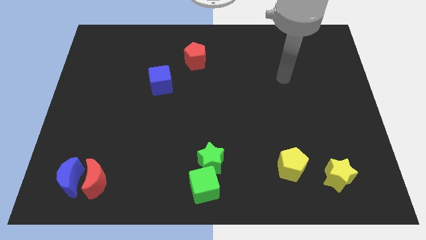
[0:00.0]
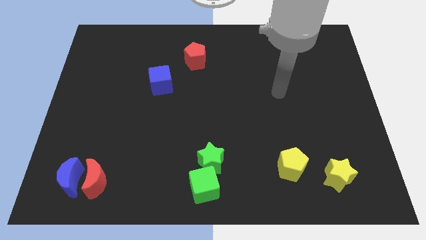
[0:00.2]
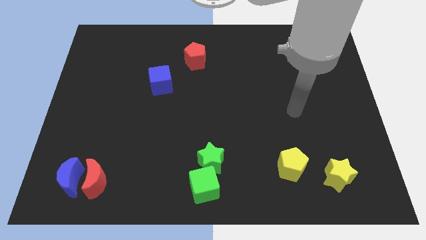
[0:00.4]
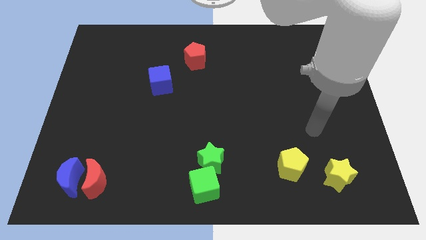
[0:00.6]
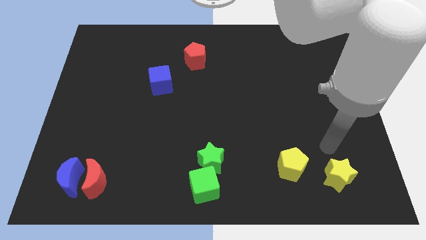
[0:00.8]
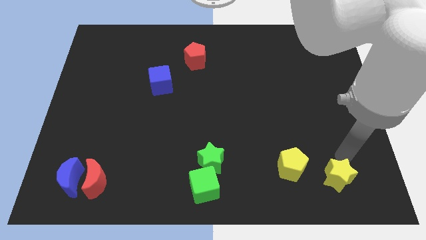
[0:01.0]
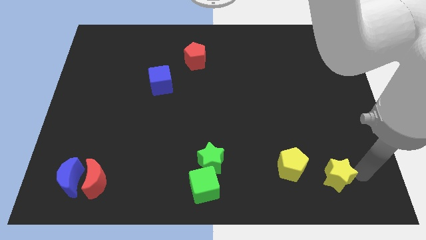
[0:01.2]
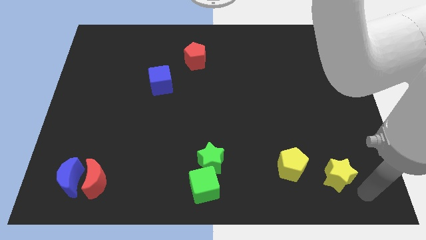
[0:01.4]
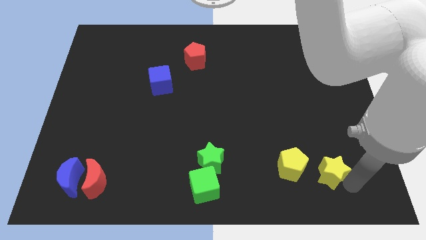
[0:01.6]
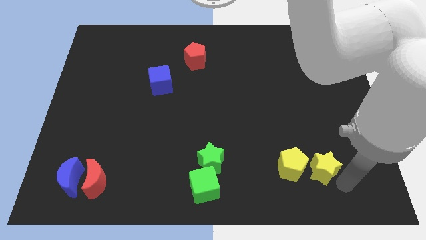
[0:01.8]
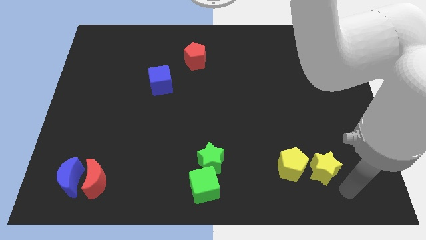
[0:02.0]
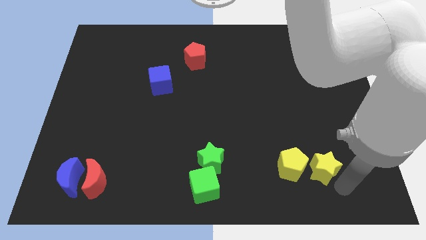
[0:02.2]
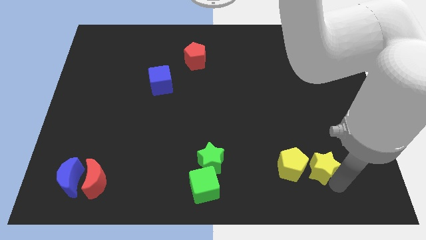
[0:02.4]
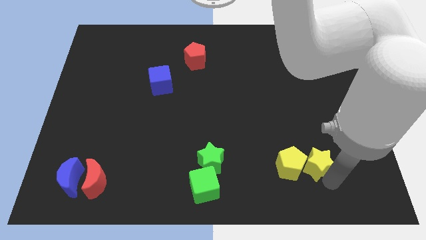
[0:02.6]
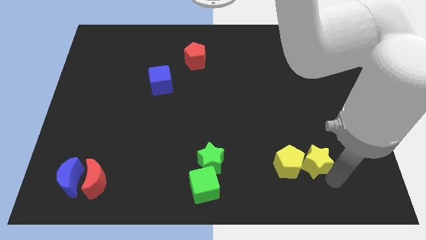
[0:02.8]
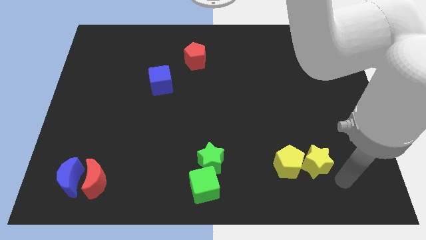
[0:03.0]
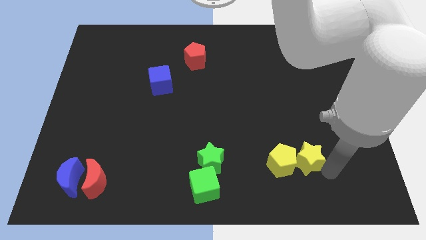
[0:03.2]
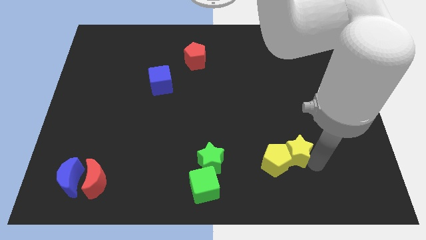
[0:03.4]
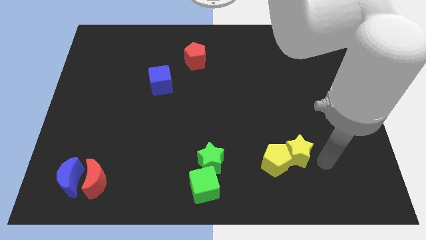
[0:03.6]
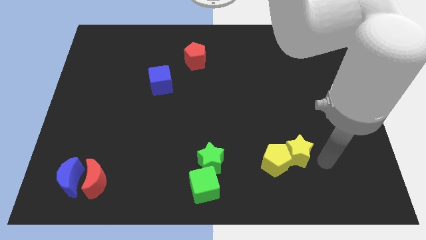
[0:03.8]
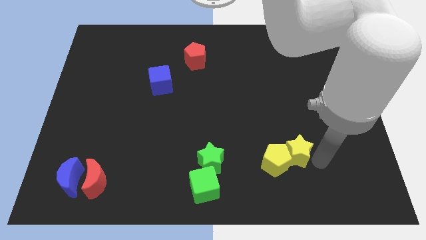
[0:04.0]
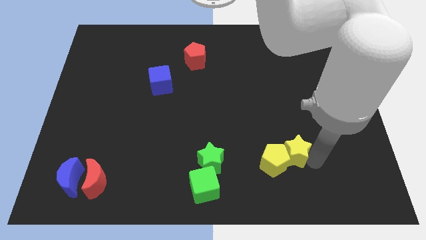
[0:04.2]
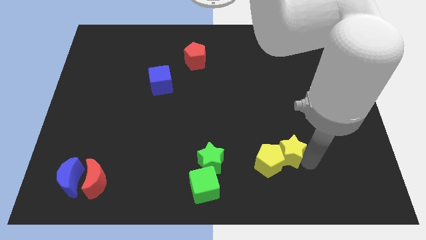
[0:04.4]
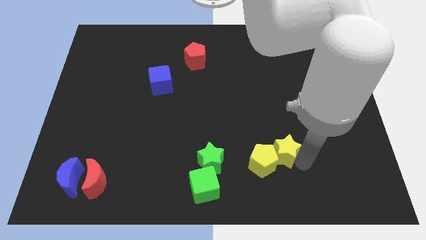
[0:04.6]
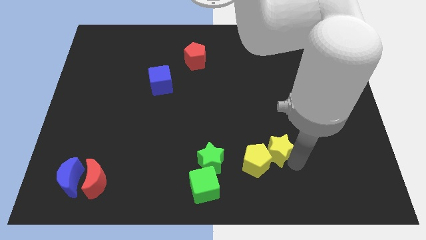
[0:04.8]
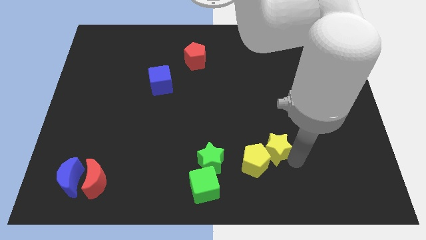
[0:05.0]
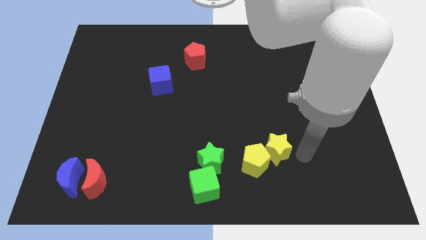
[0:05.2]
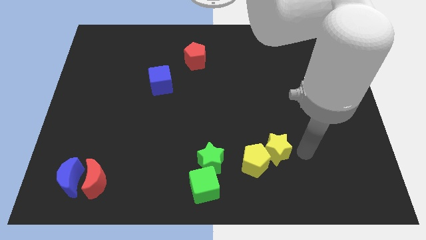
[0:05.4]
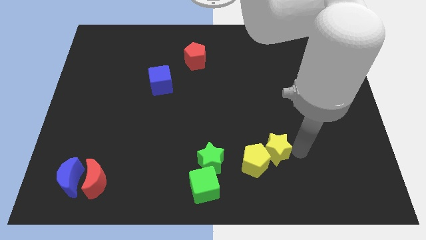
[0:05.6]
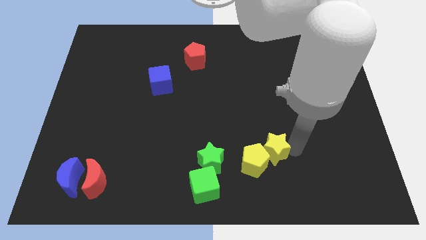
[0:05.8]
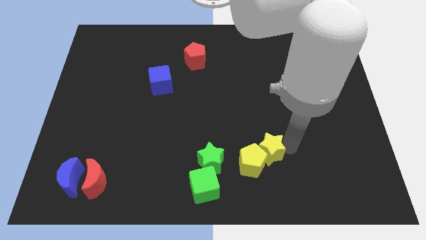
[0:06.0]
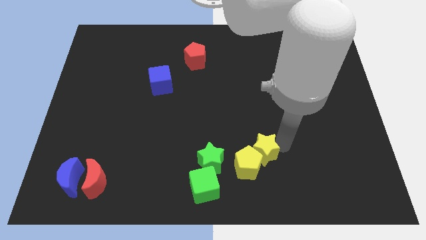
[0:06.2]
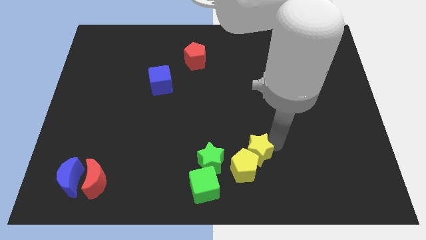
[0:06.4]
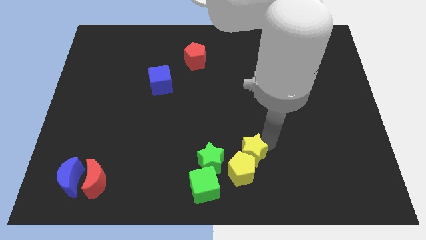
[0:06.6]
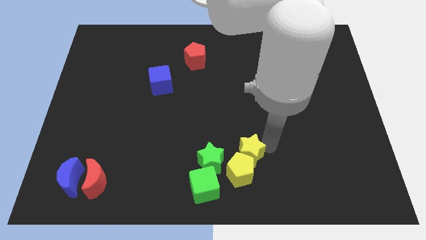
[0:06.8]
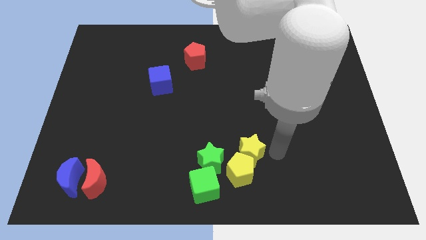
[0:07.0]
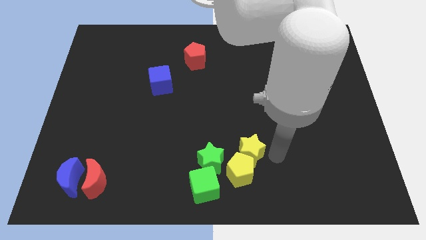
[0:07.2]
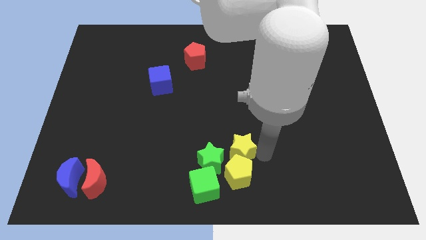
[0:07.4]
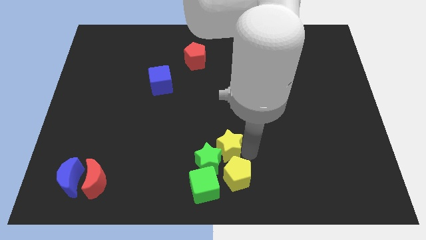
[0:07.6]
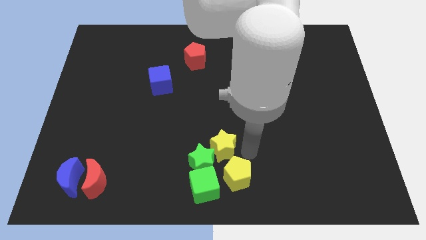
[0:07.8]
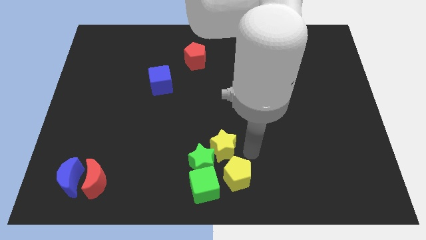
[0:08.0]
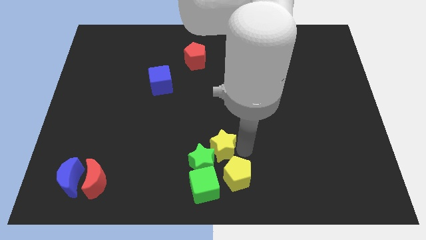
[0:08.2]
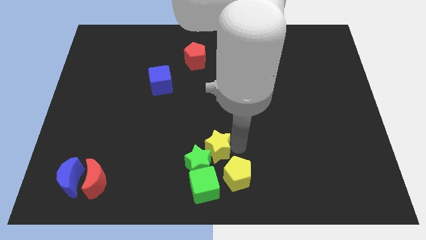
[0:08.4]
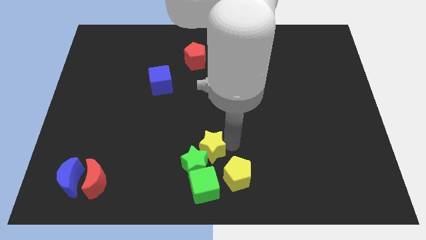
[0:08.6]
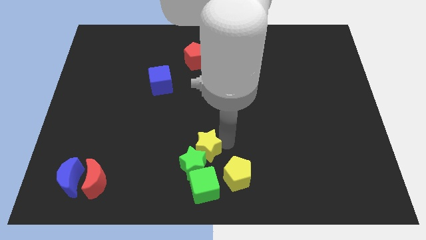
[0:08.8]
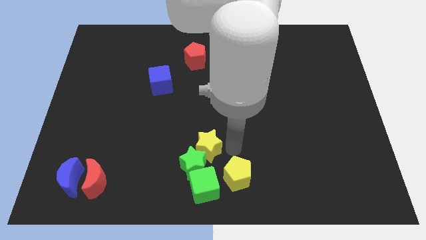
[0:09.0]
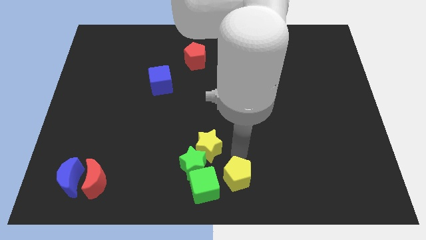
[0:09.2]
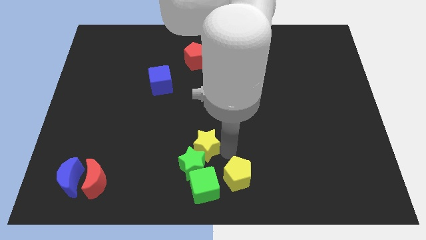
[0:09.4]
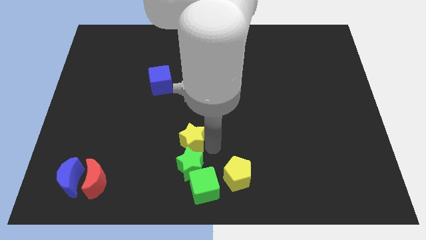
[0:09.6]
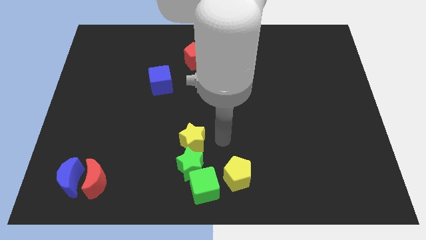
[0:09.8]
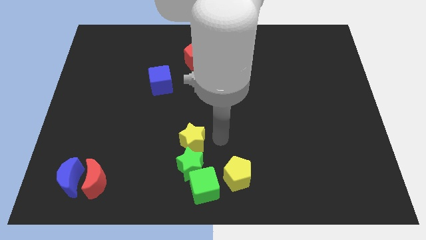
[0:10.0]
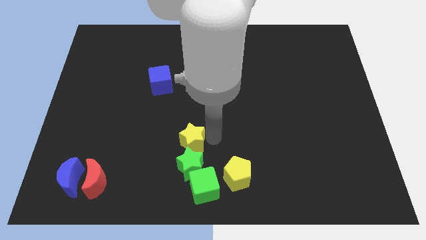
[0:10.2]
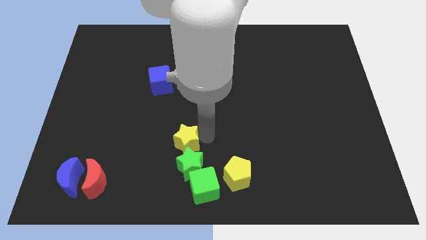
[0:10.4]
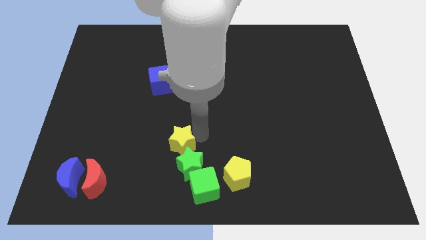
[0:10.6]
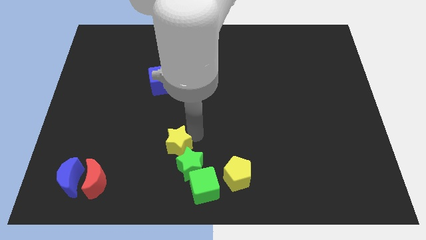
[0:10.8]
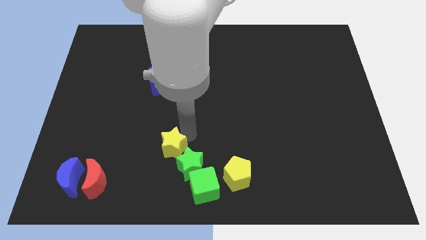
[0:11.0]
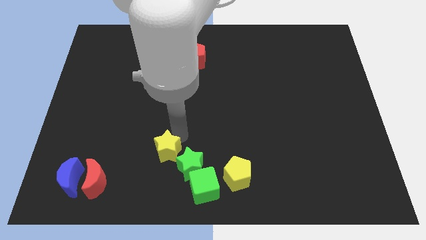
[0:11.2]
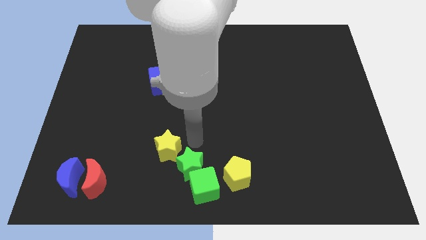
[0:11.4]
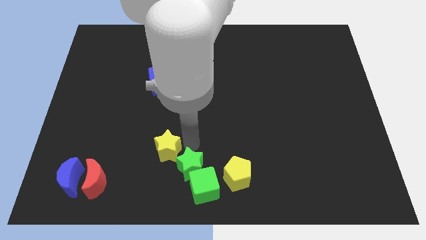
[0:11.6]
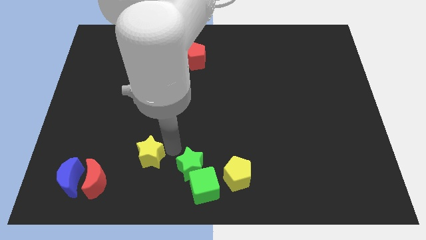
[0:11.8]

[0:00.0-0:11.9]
put the yellow star diagonally up and to the right of the red moon

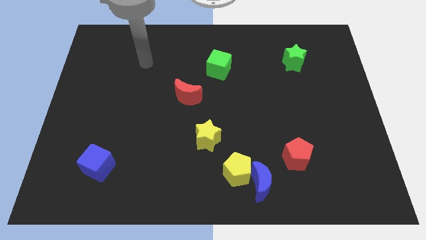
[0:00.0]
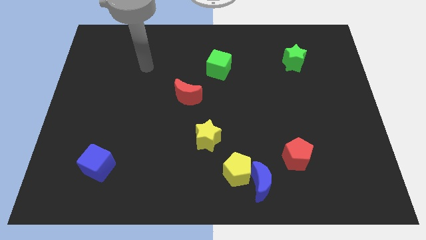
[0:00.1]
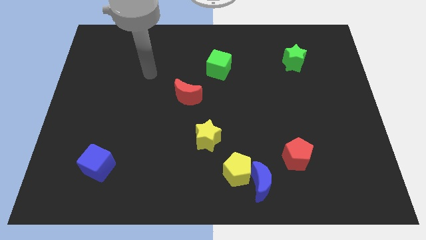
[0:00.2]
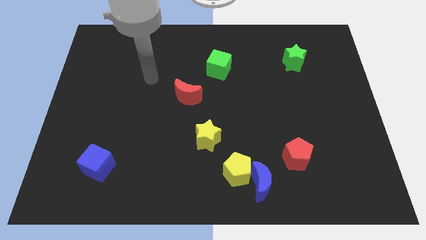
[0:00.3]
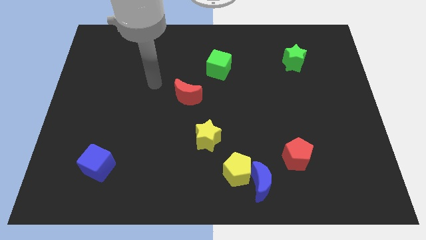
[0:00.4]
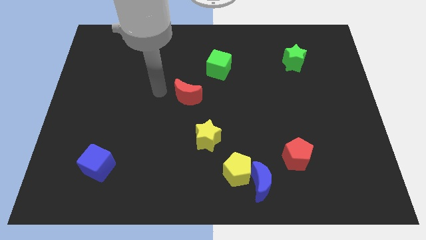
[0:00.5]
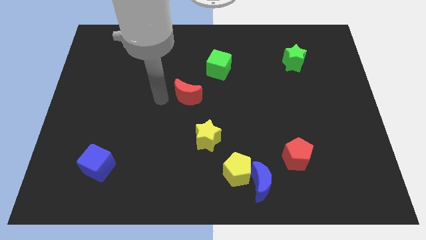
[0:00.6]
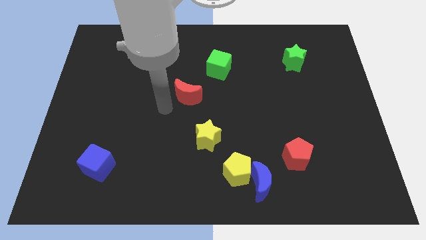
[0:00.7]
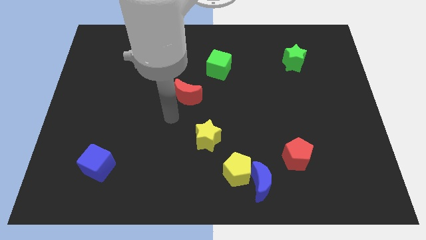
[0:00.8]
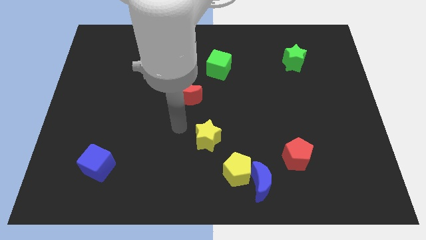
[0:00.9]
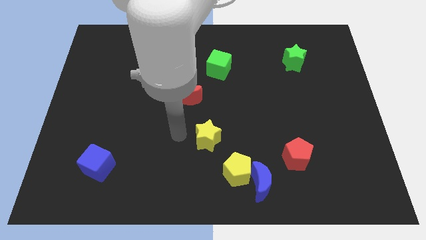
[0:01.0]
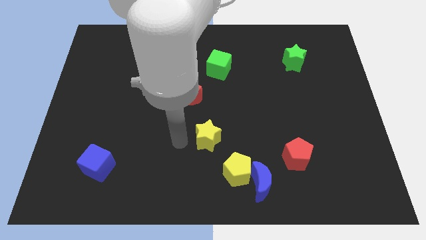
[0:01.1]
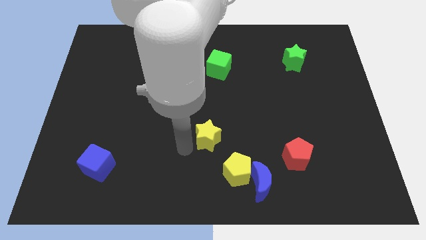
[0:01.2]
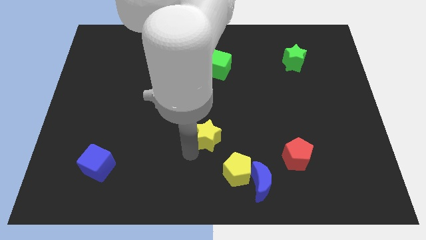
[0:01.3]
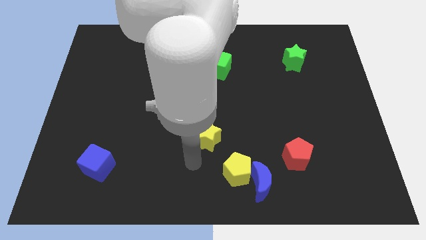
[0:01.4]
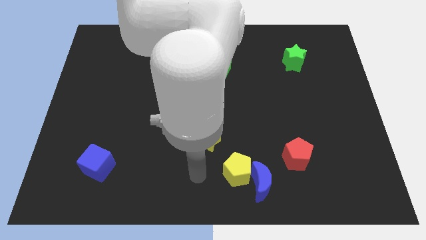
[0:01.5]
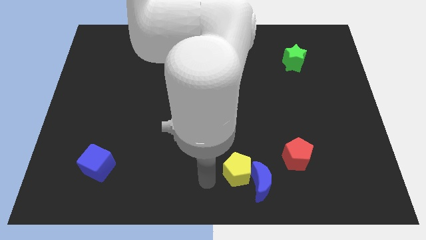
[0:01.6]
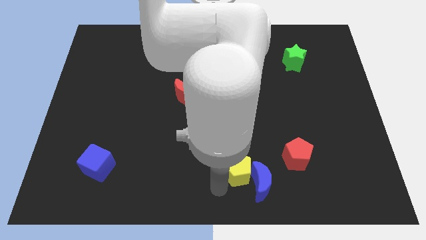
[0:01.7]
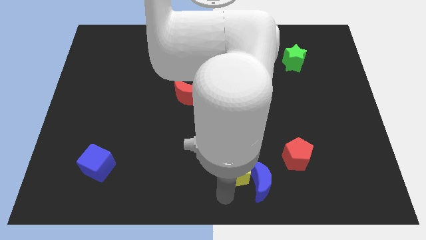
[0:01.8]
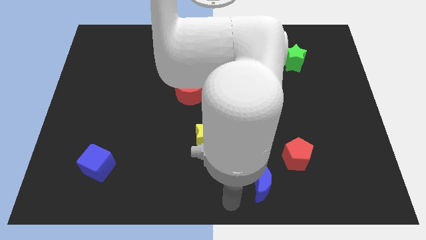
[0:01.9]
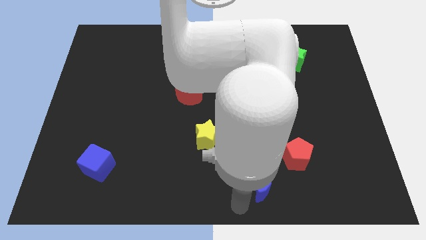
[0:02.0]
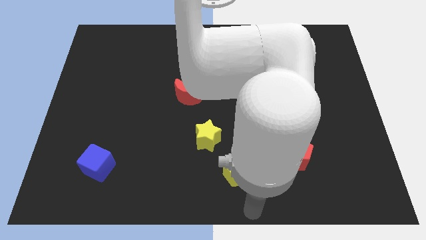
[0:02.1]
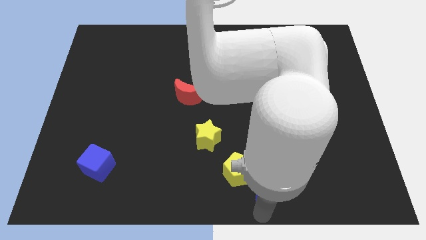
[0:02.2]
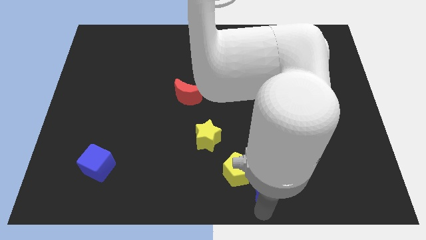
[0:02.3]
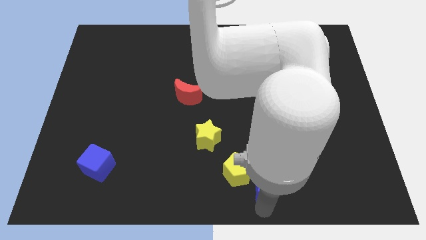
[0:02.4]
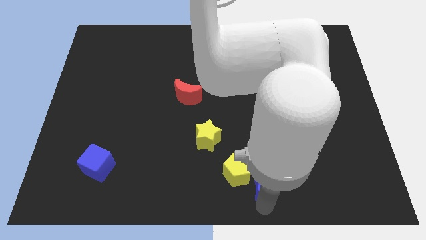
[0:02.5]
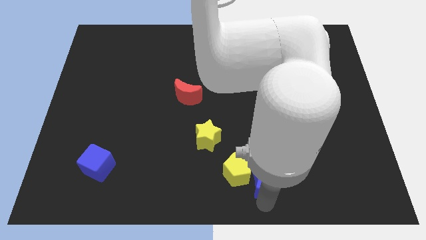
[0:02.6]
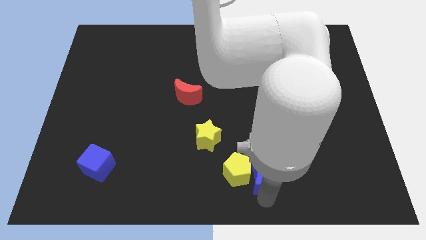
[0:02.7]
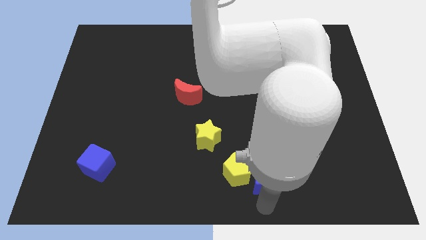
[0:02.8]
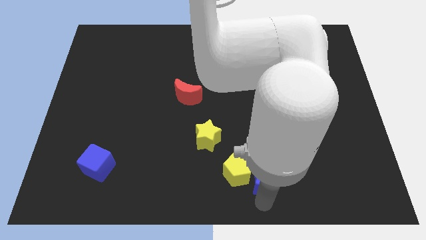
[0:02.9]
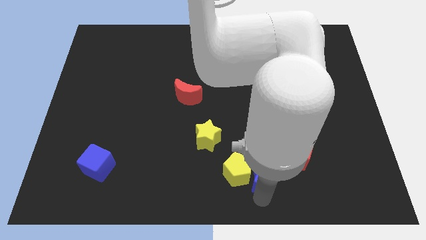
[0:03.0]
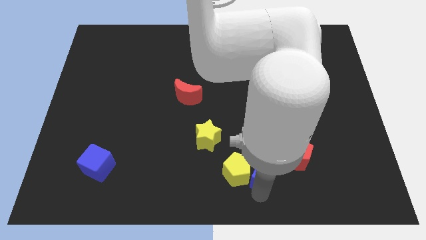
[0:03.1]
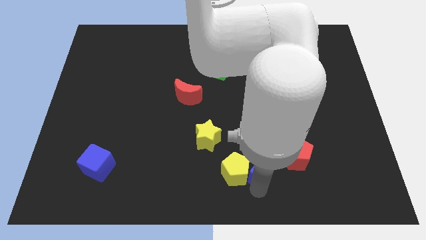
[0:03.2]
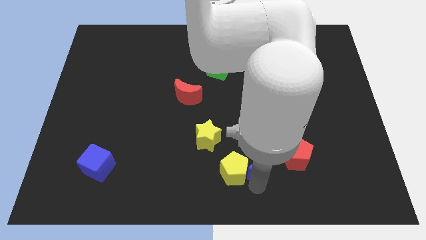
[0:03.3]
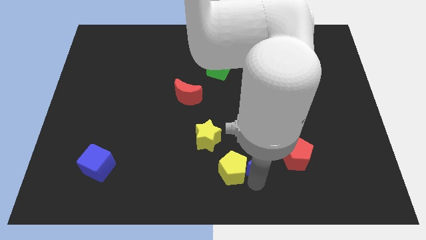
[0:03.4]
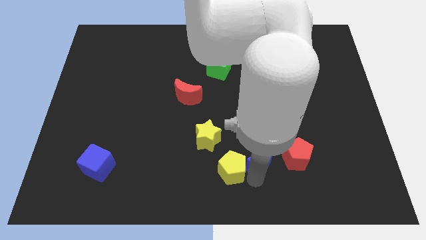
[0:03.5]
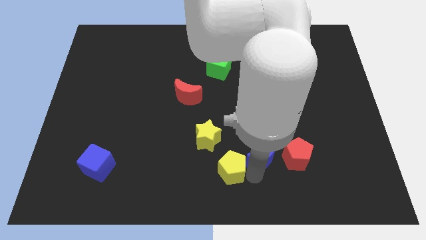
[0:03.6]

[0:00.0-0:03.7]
move the blue moon just right of the yellow star
